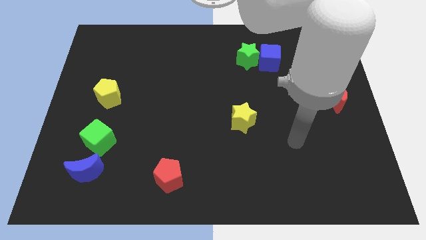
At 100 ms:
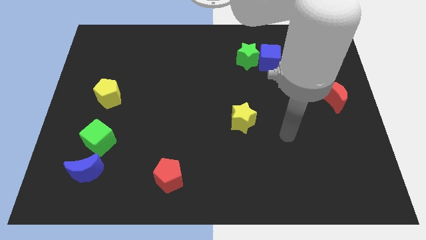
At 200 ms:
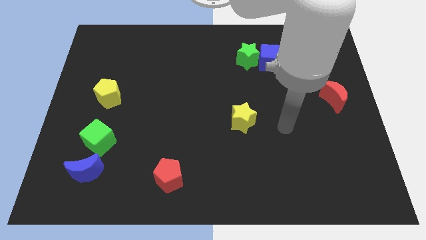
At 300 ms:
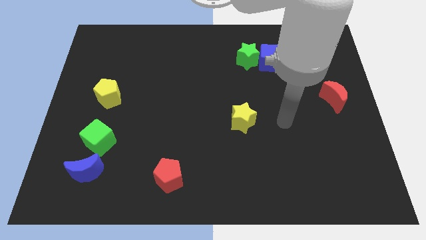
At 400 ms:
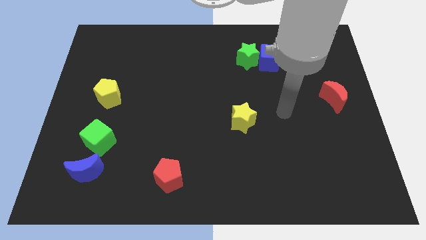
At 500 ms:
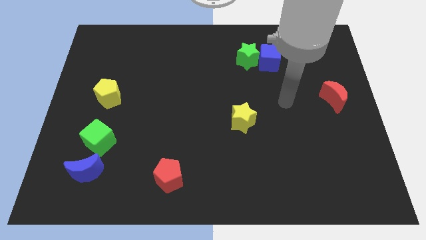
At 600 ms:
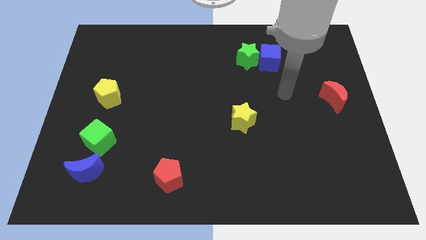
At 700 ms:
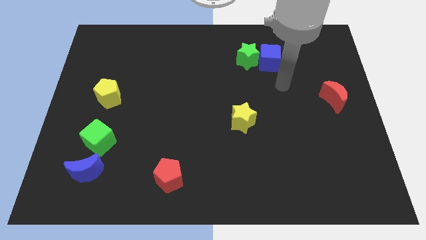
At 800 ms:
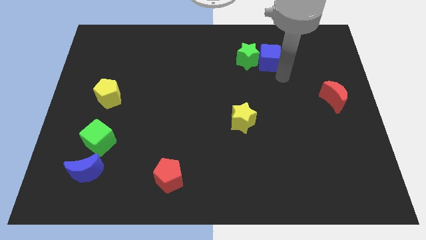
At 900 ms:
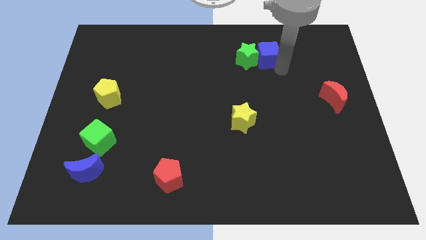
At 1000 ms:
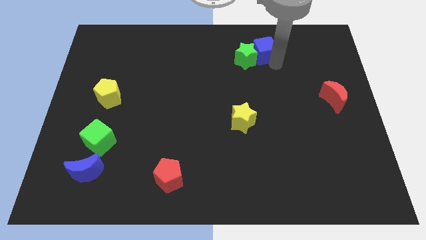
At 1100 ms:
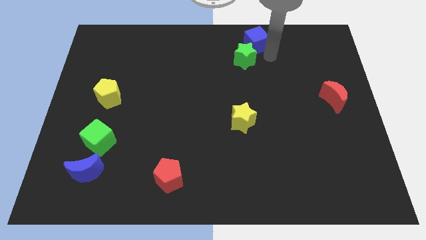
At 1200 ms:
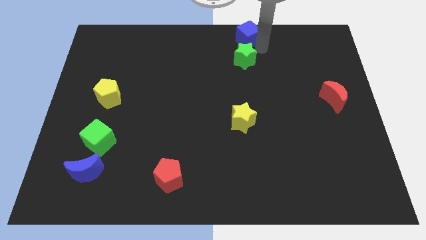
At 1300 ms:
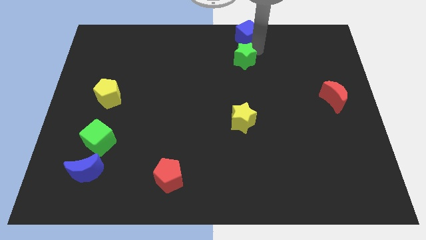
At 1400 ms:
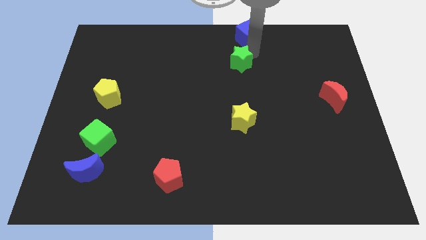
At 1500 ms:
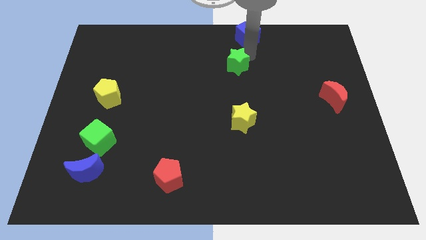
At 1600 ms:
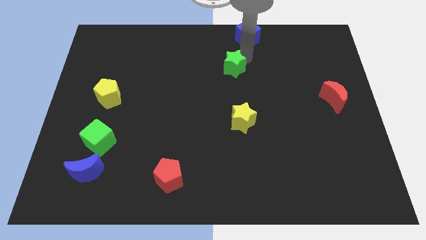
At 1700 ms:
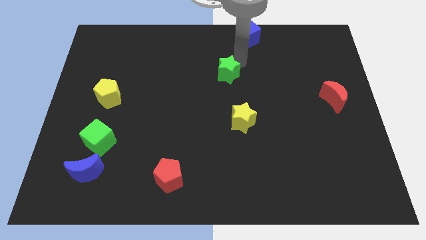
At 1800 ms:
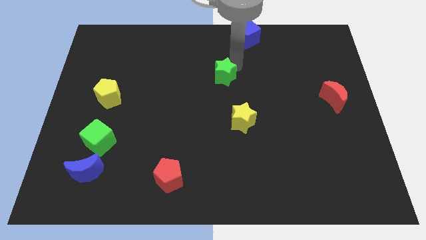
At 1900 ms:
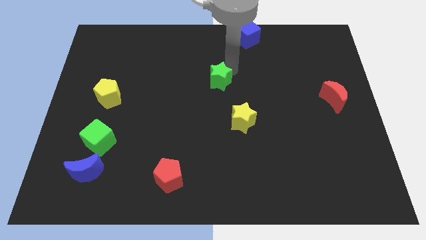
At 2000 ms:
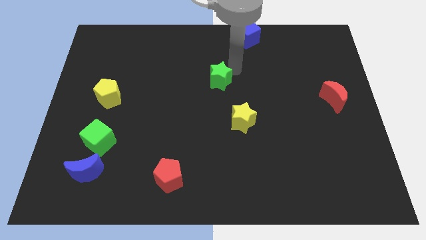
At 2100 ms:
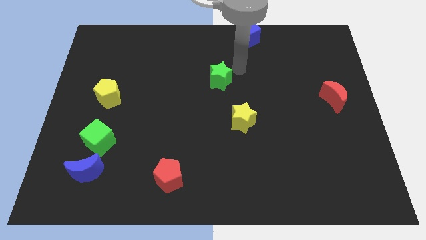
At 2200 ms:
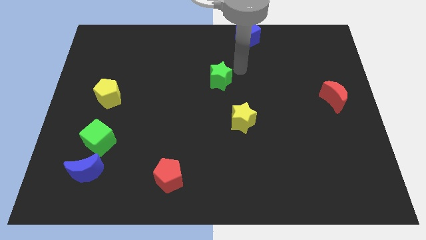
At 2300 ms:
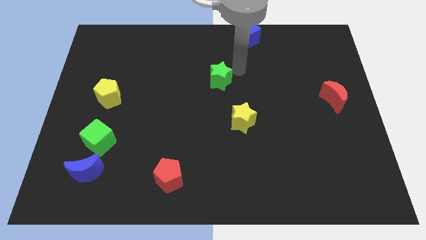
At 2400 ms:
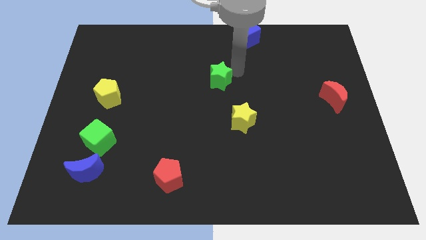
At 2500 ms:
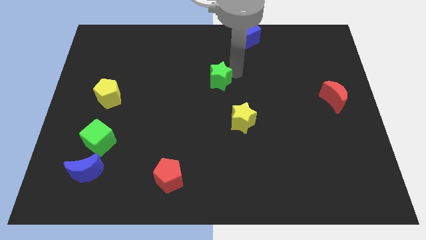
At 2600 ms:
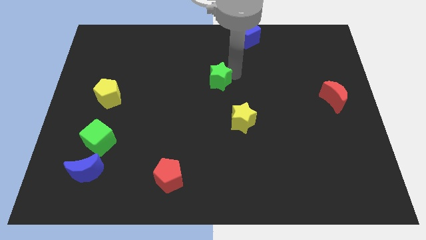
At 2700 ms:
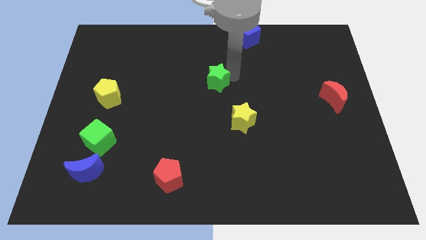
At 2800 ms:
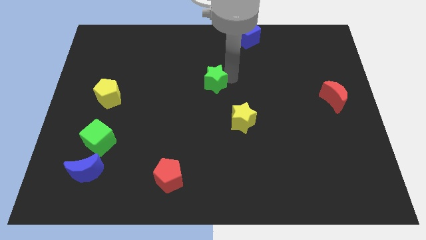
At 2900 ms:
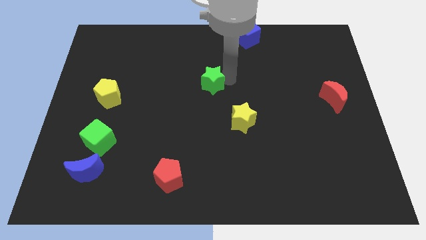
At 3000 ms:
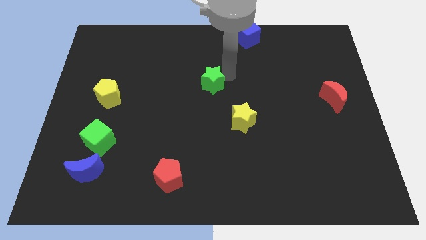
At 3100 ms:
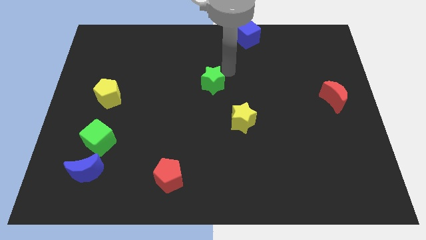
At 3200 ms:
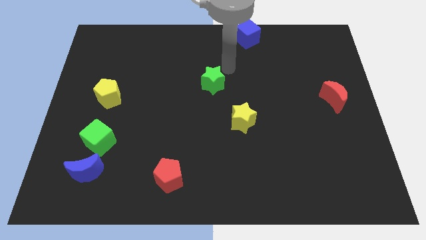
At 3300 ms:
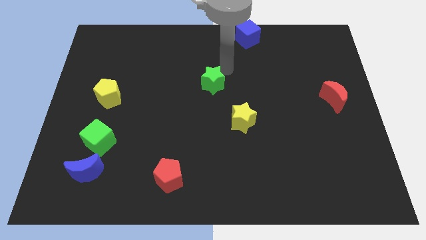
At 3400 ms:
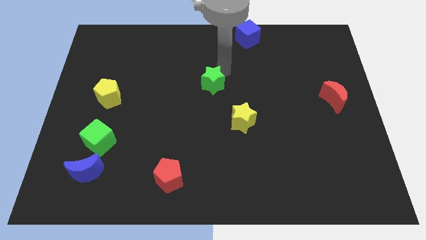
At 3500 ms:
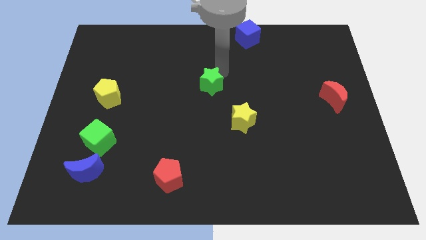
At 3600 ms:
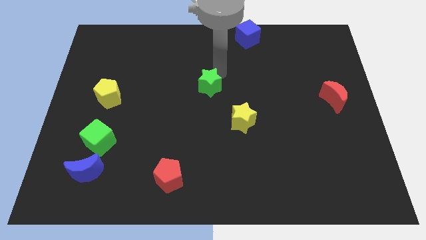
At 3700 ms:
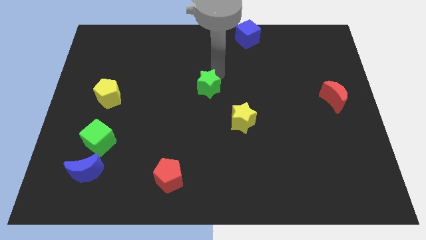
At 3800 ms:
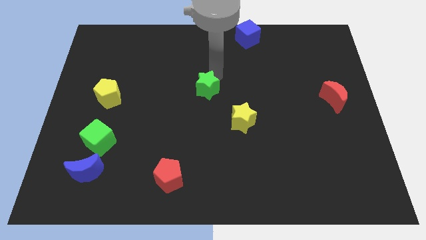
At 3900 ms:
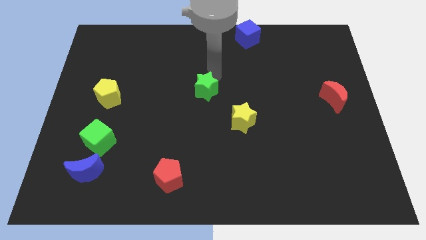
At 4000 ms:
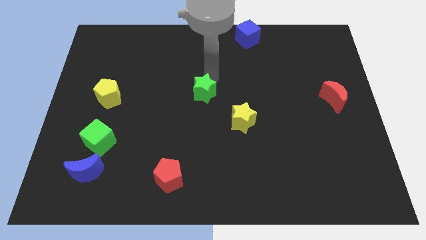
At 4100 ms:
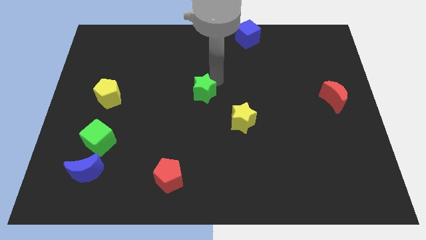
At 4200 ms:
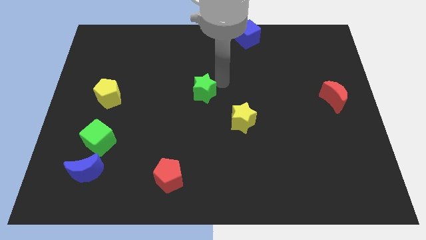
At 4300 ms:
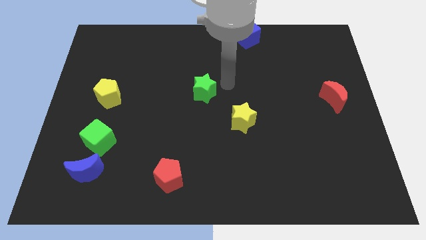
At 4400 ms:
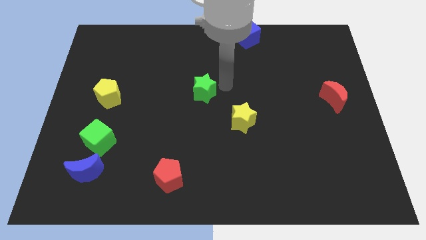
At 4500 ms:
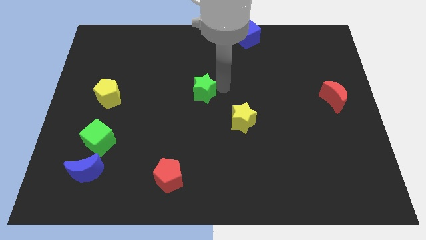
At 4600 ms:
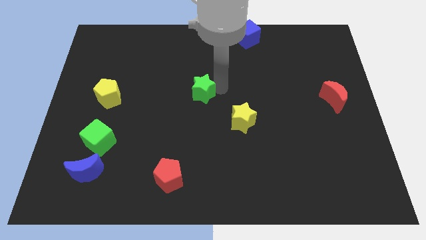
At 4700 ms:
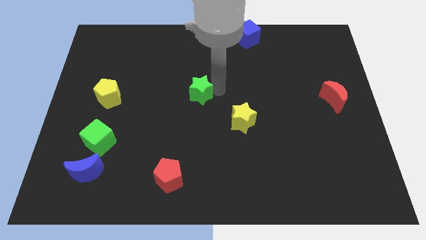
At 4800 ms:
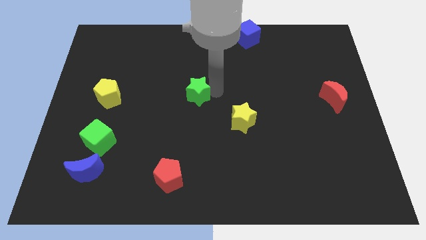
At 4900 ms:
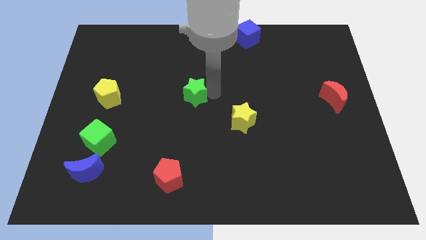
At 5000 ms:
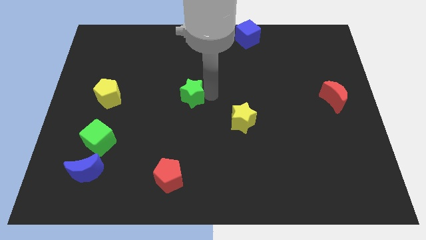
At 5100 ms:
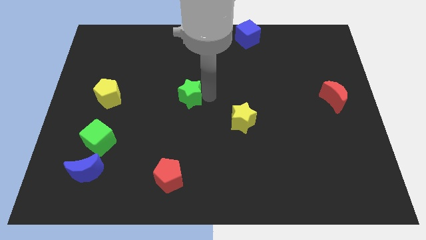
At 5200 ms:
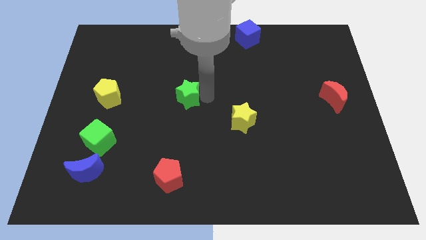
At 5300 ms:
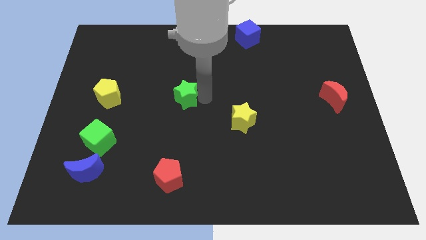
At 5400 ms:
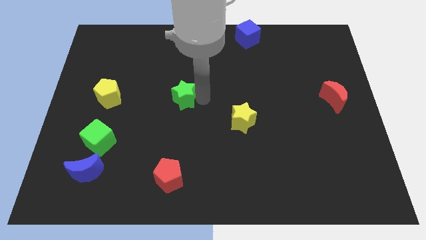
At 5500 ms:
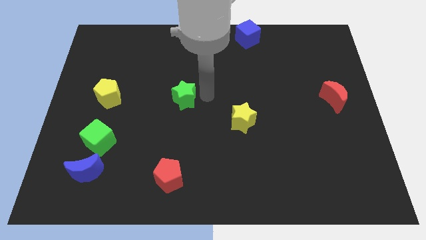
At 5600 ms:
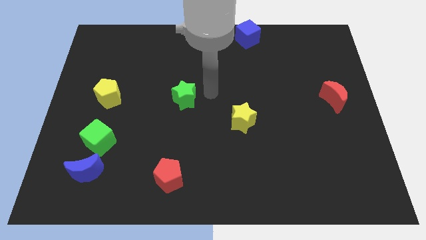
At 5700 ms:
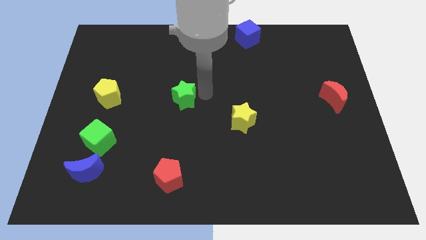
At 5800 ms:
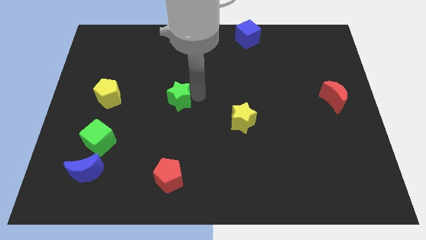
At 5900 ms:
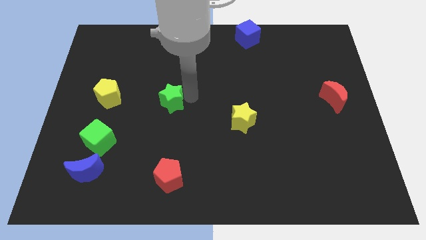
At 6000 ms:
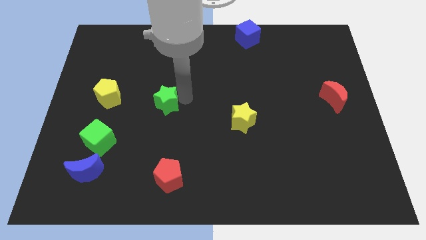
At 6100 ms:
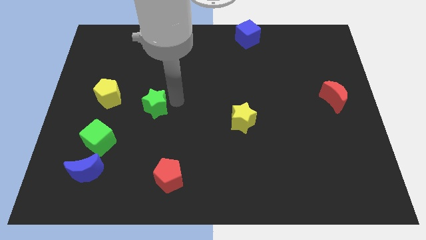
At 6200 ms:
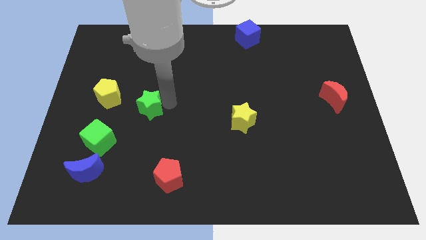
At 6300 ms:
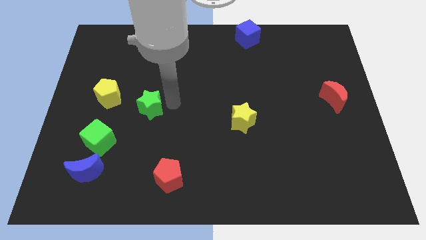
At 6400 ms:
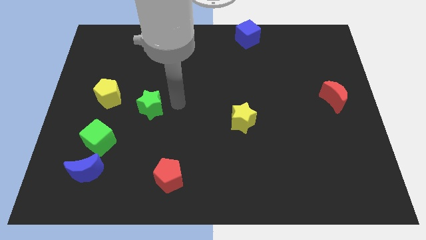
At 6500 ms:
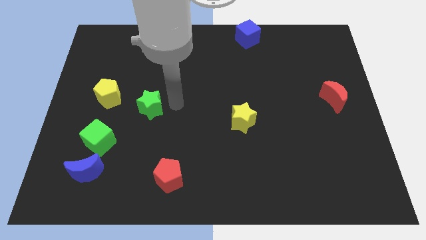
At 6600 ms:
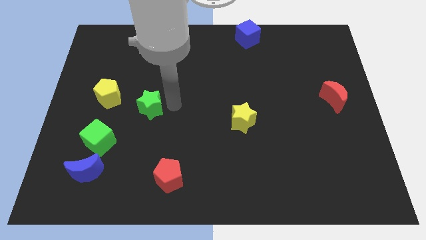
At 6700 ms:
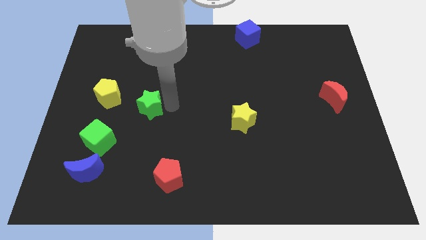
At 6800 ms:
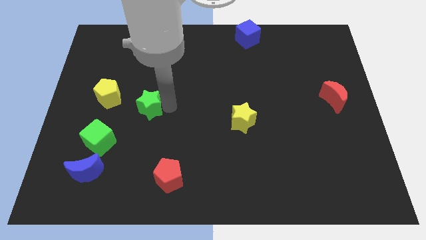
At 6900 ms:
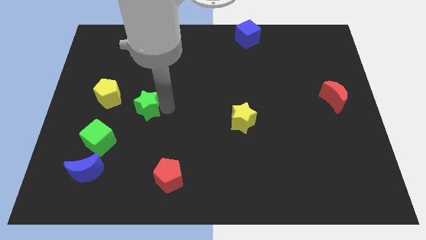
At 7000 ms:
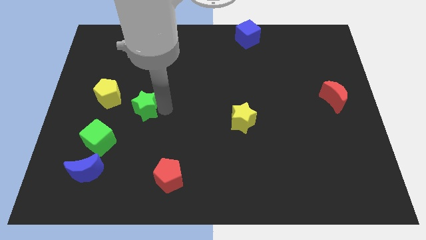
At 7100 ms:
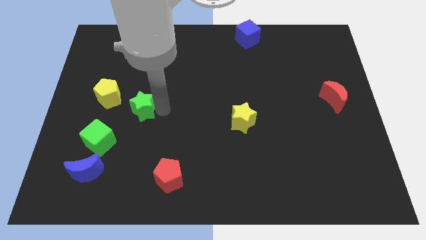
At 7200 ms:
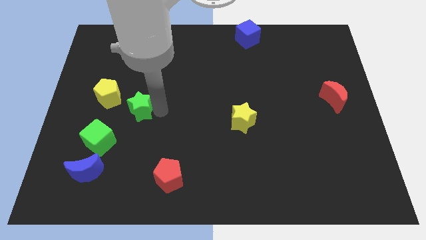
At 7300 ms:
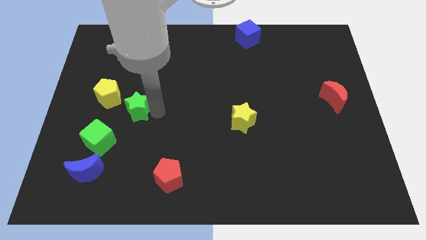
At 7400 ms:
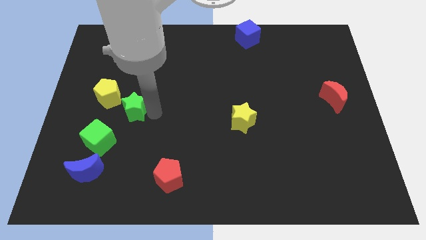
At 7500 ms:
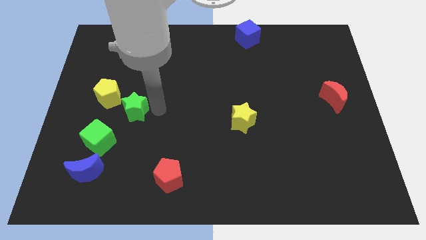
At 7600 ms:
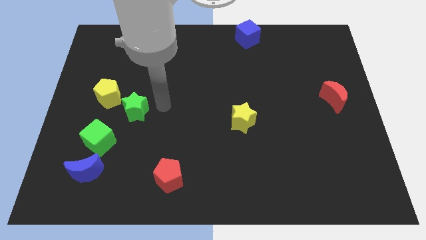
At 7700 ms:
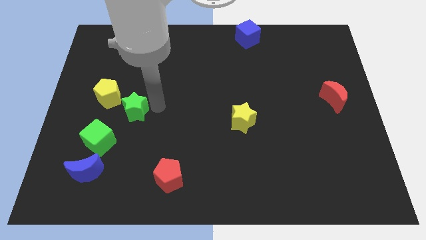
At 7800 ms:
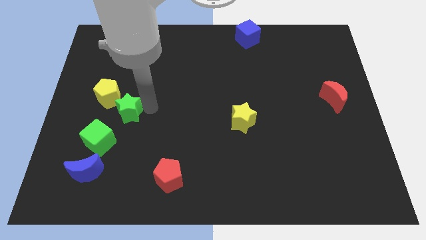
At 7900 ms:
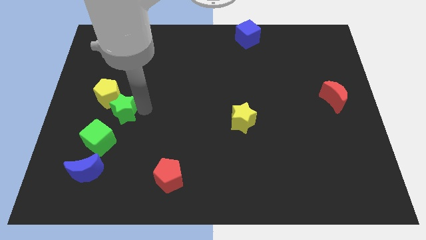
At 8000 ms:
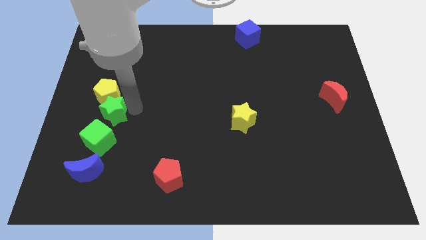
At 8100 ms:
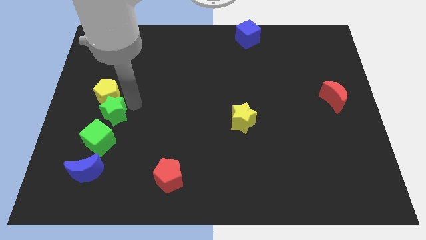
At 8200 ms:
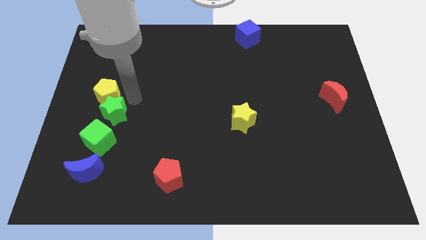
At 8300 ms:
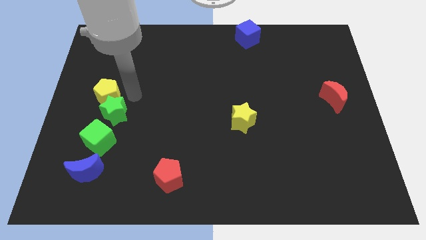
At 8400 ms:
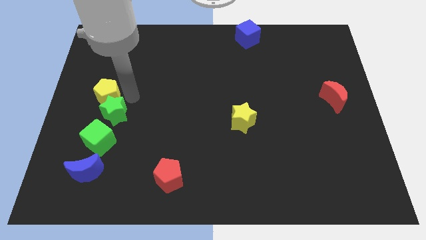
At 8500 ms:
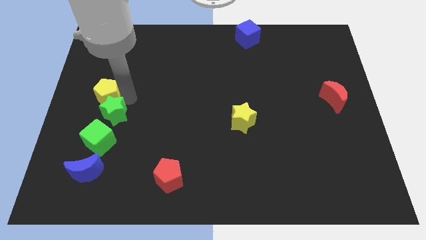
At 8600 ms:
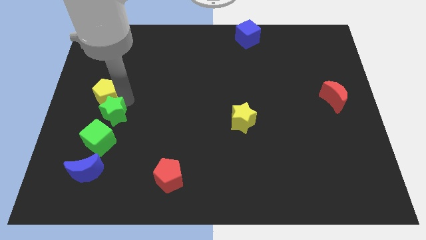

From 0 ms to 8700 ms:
slide the green star to the top of the blue moon
